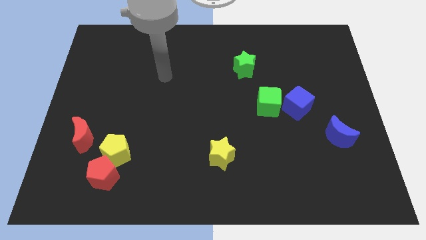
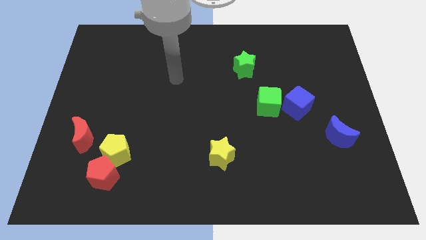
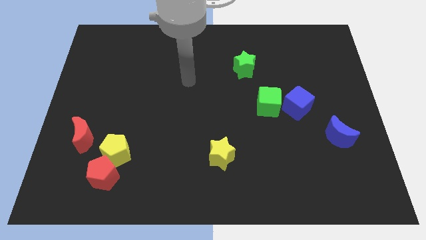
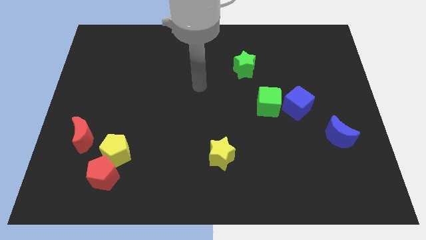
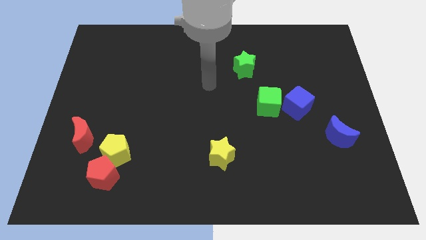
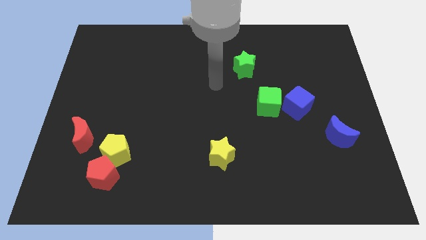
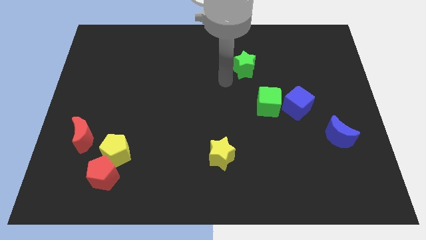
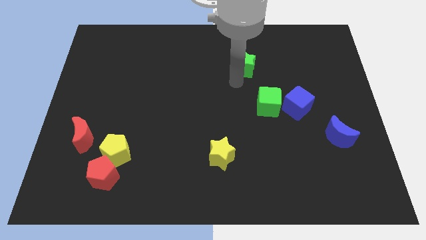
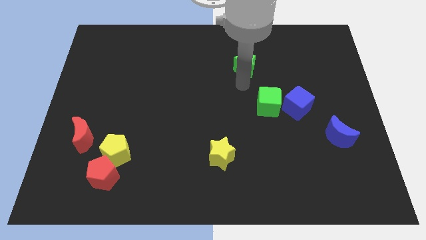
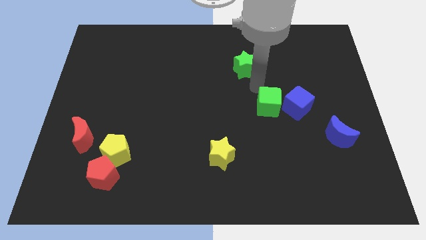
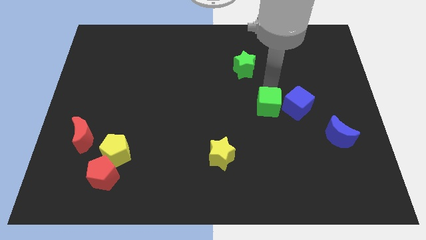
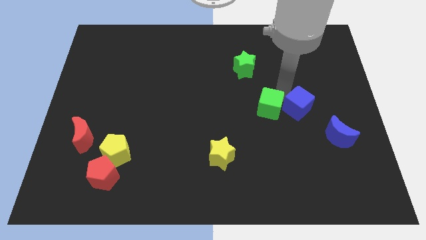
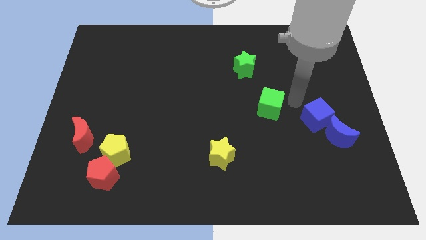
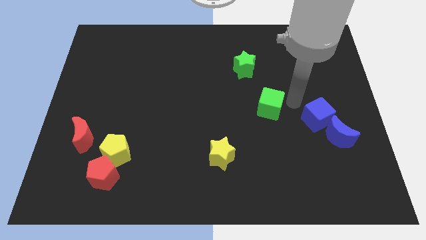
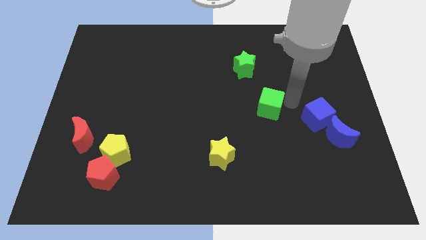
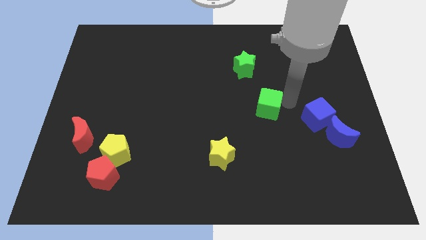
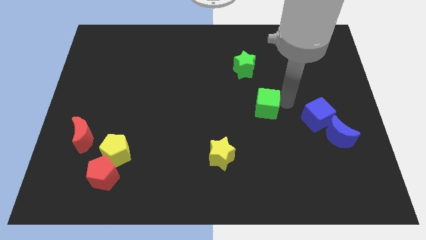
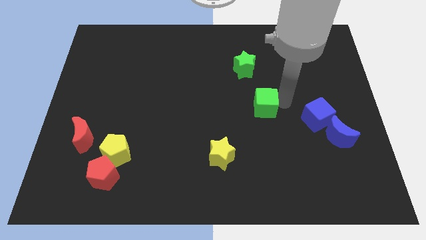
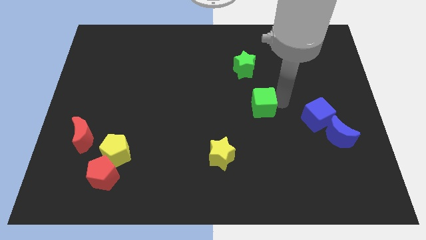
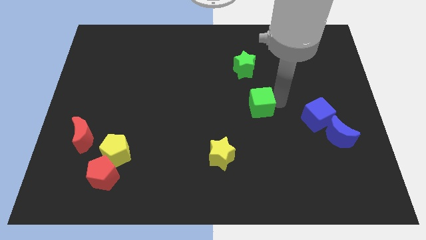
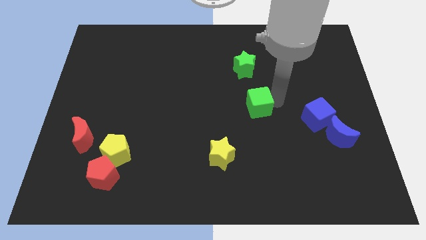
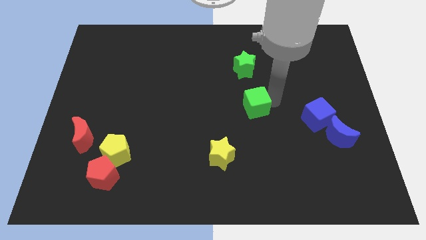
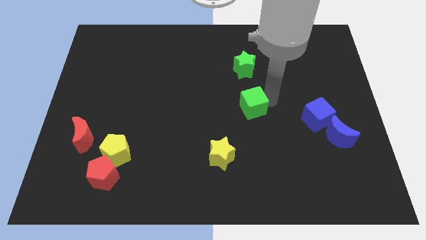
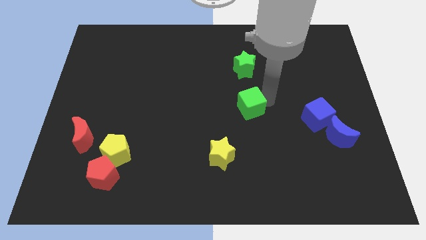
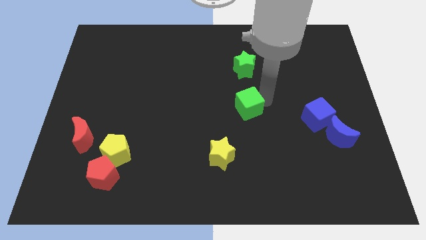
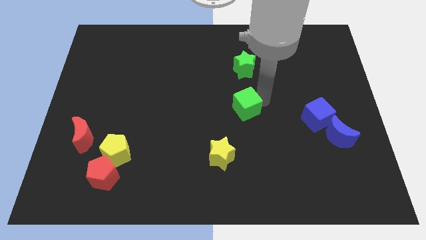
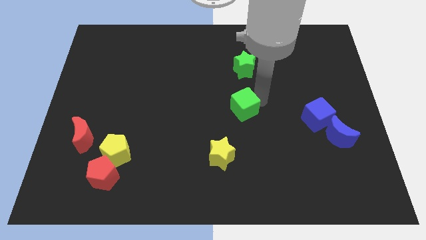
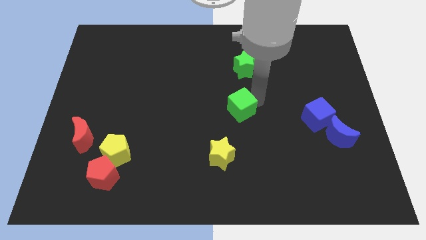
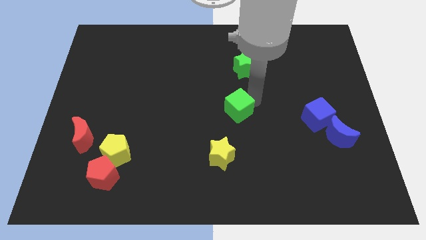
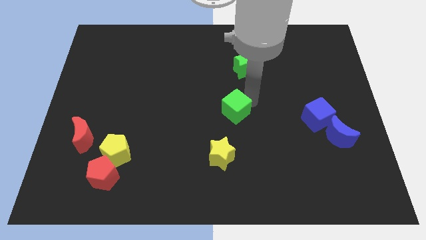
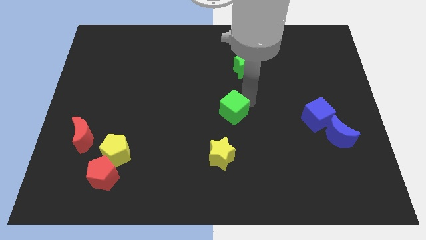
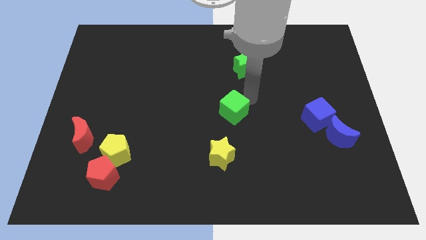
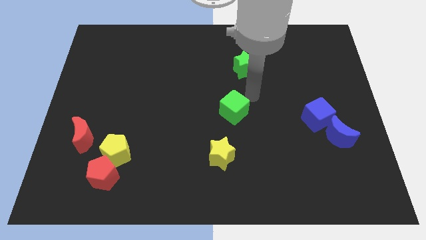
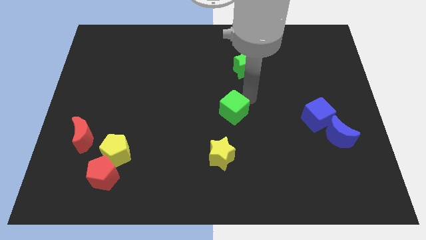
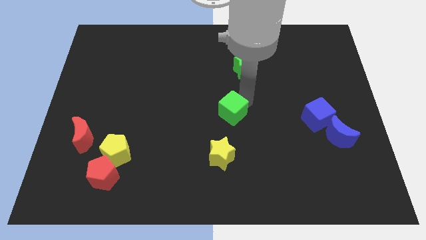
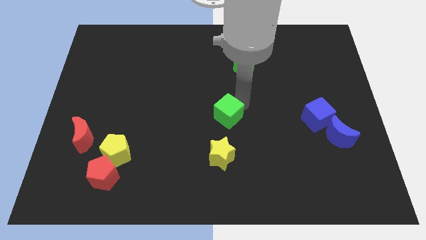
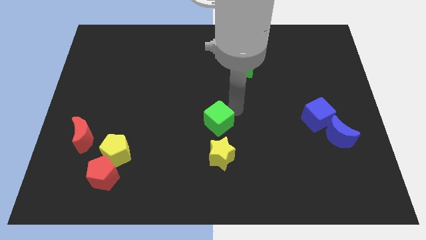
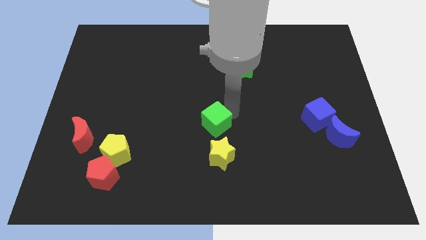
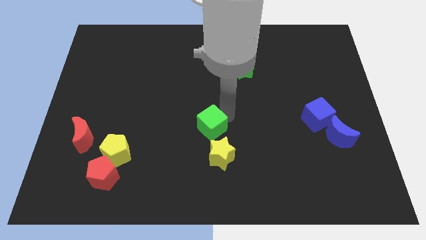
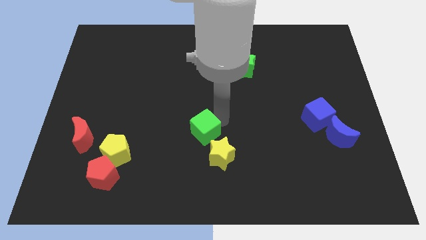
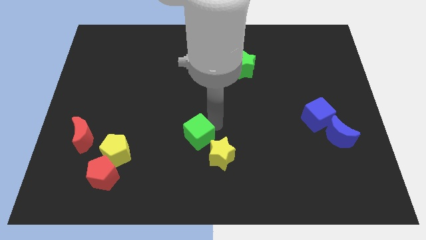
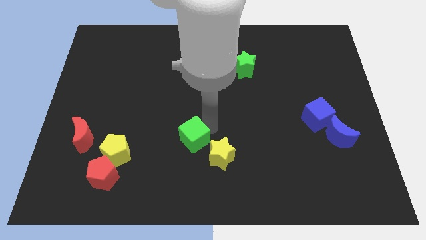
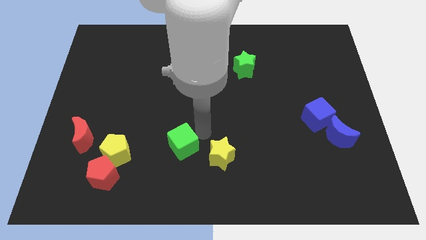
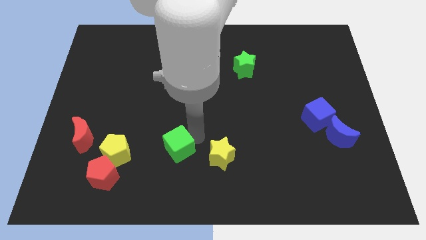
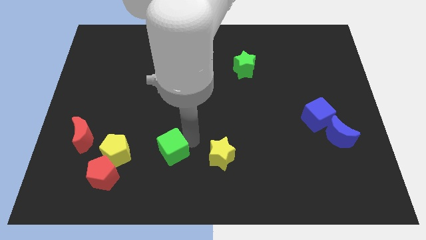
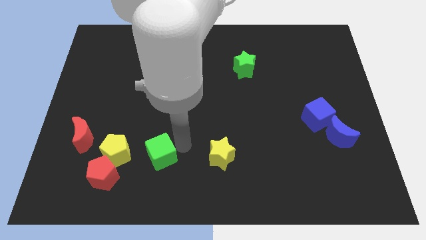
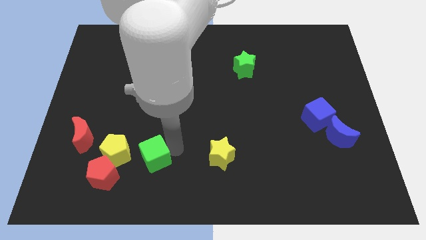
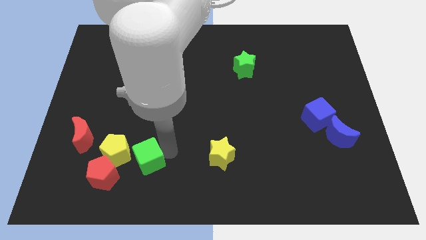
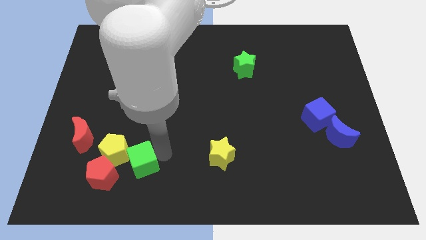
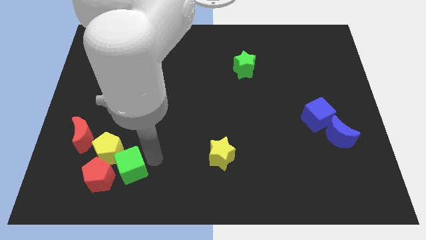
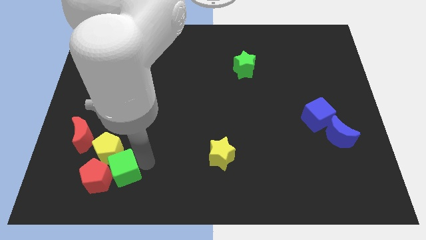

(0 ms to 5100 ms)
put the green cube close to the red pentagon

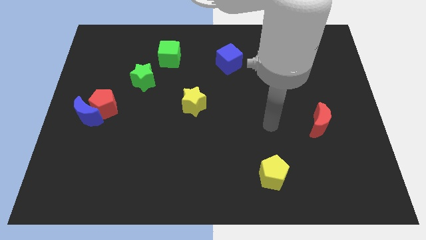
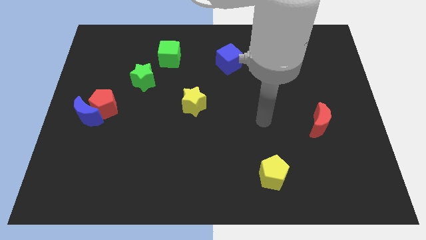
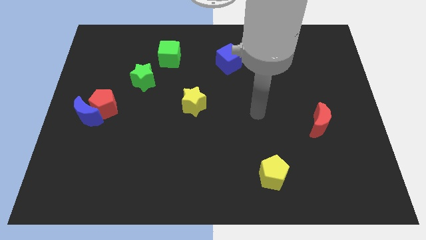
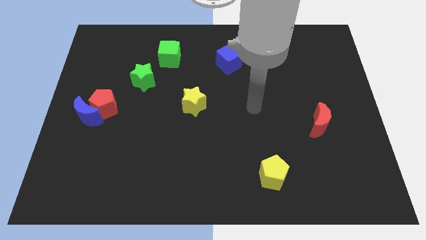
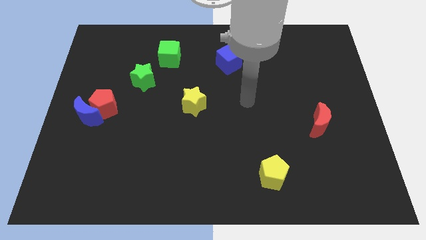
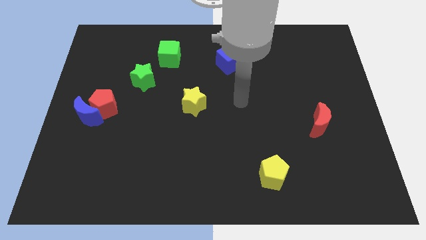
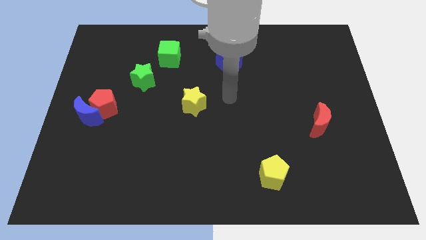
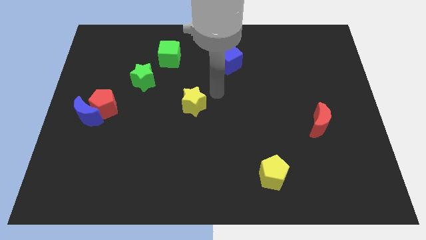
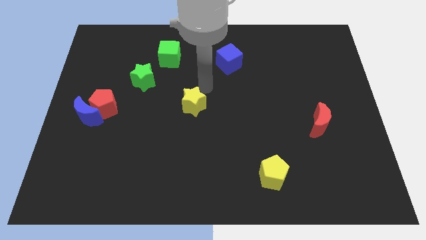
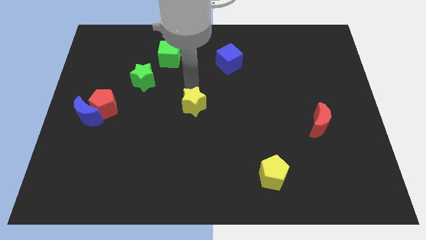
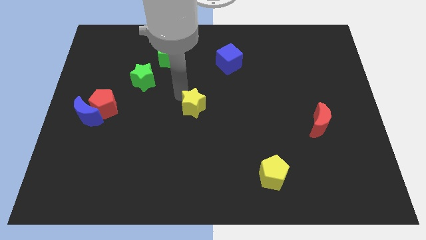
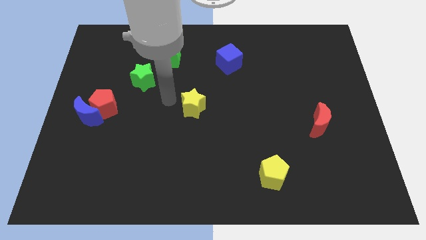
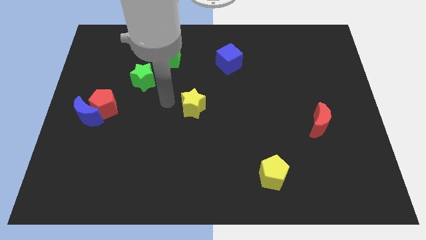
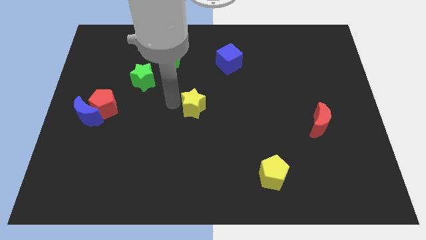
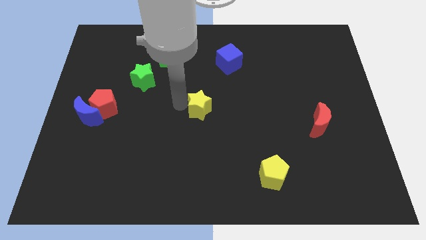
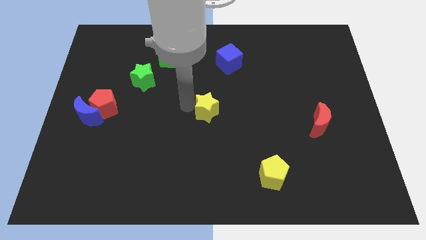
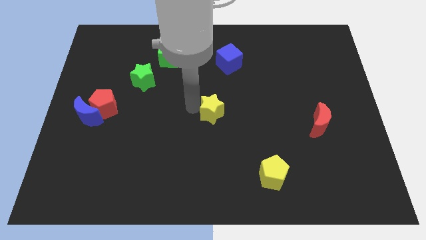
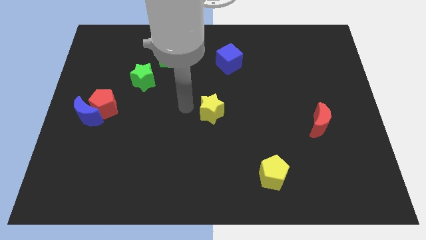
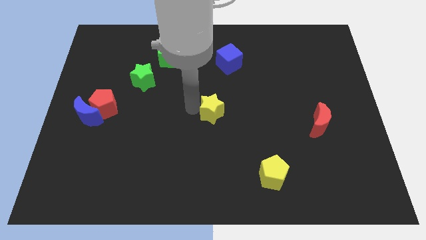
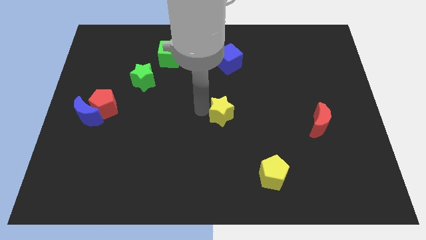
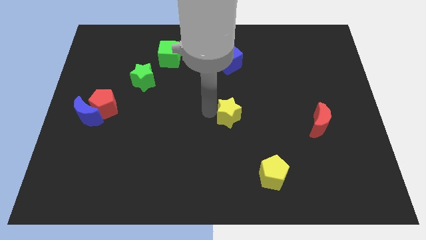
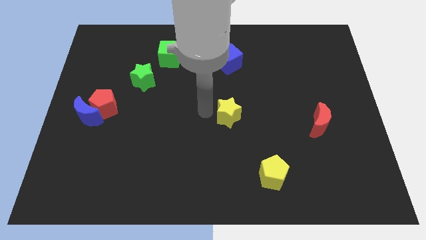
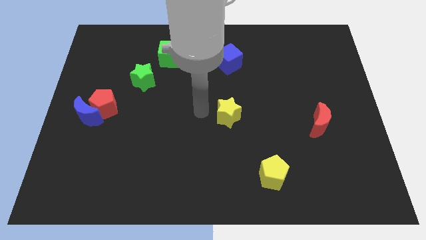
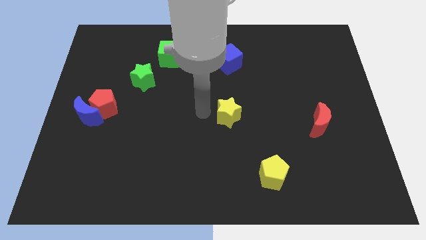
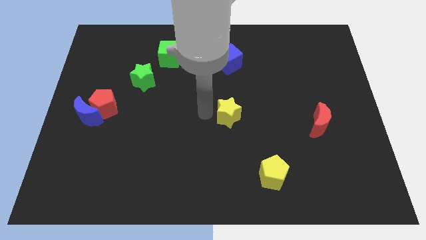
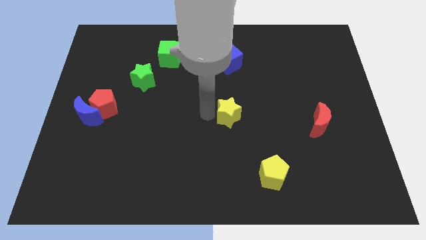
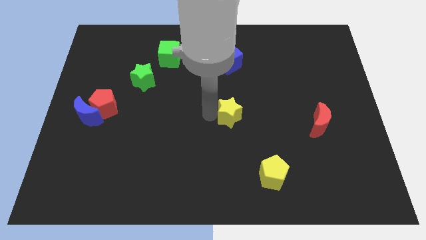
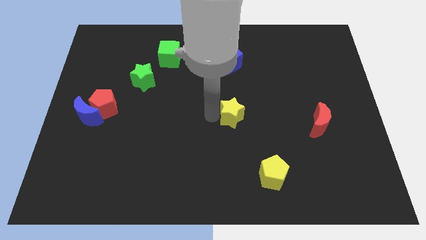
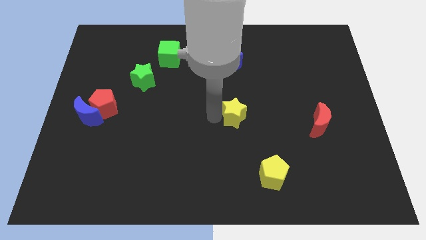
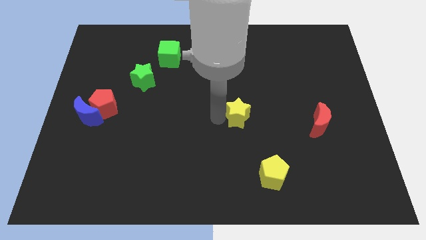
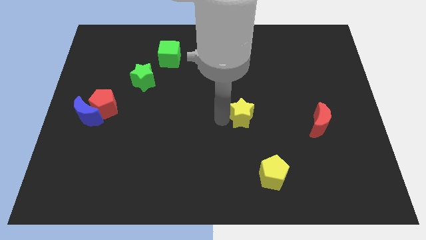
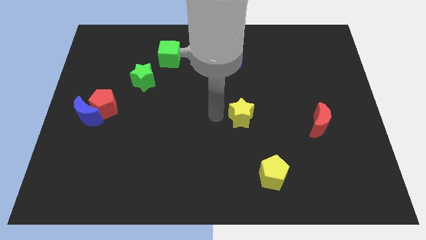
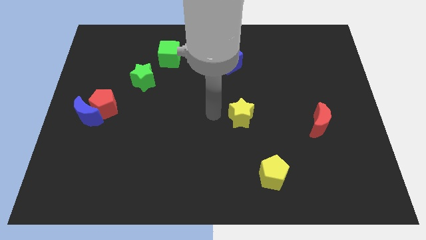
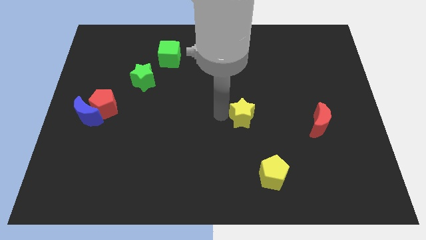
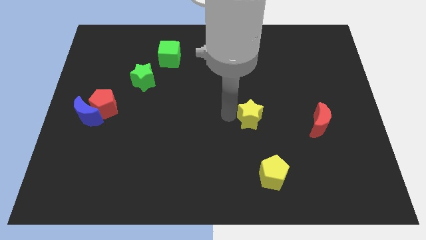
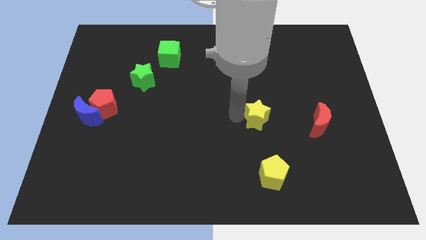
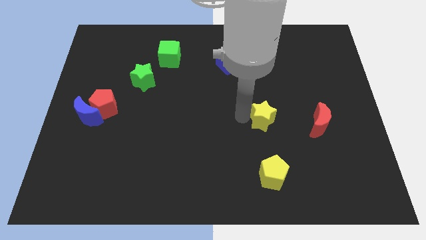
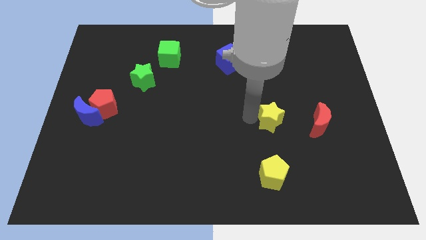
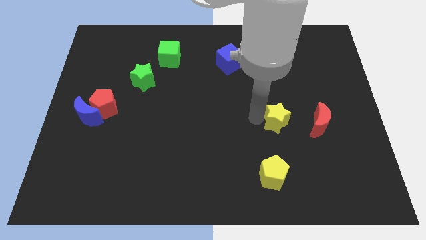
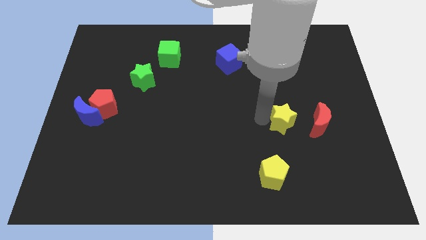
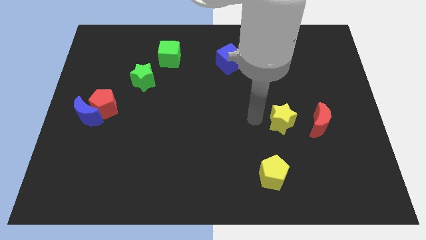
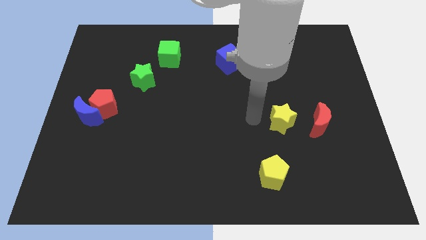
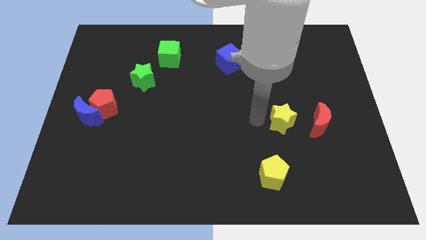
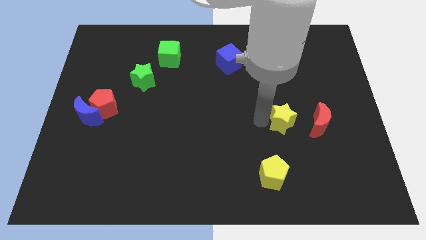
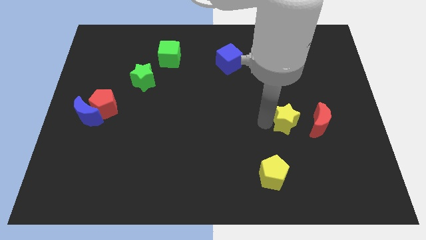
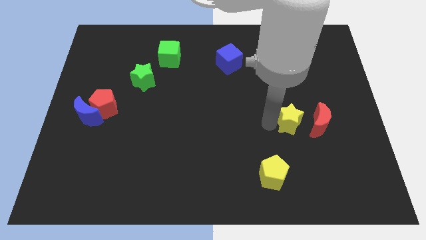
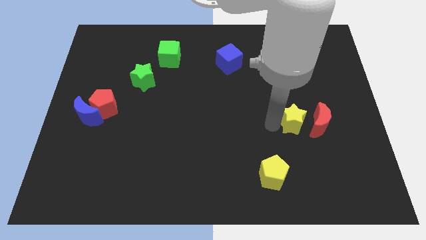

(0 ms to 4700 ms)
slide the yellow star next to the red moon
